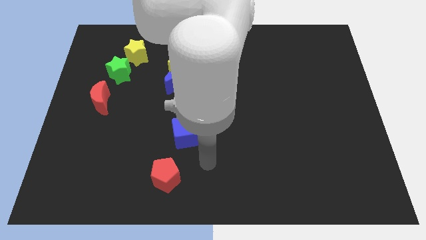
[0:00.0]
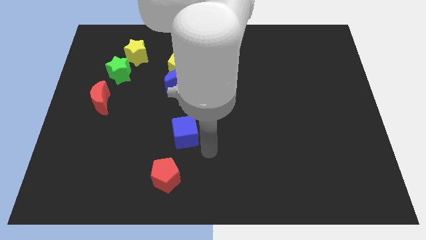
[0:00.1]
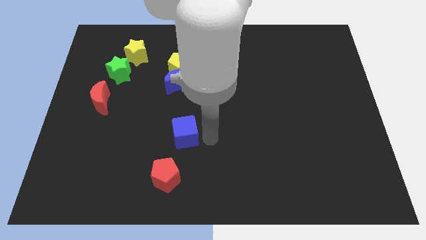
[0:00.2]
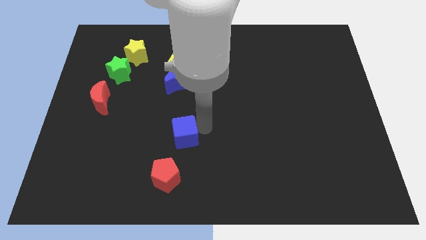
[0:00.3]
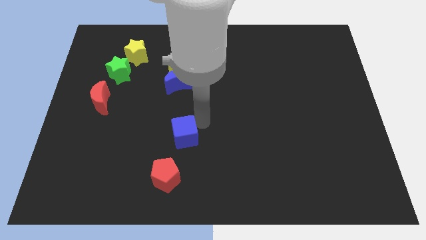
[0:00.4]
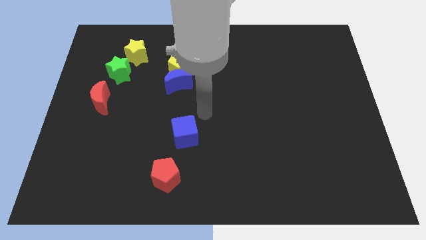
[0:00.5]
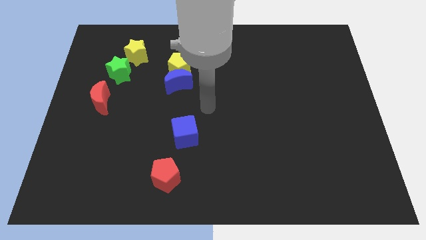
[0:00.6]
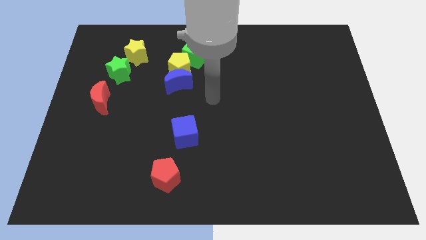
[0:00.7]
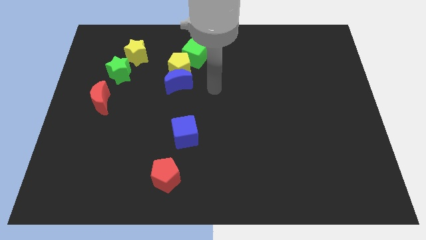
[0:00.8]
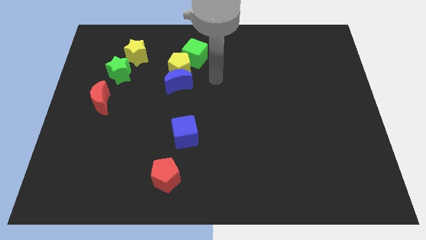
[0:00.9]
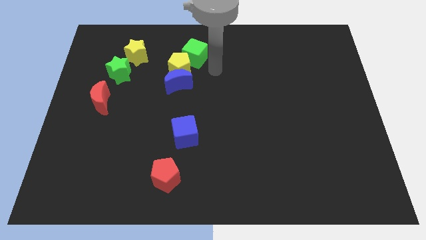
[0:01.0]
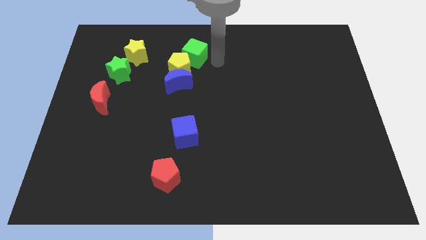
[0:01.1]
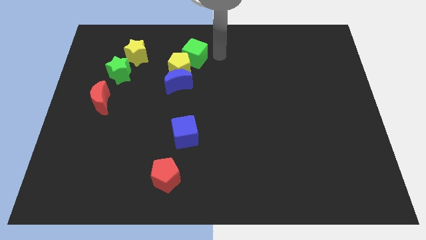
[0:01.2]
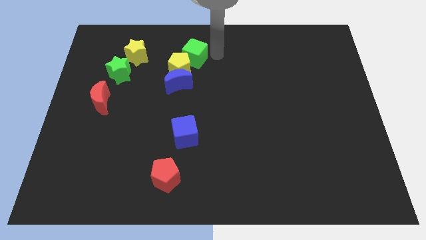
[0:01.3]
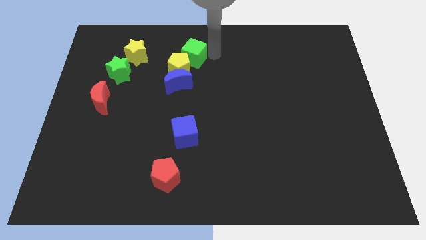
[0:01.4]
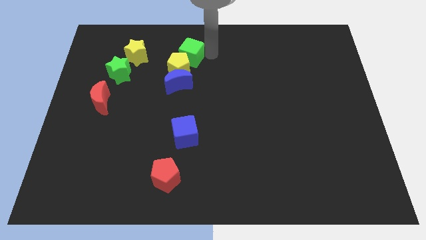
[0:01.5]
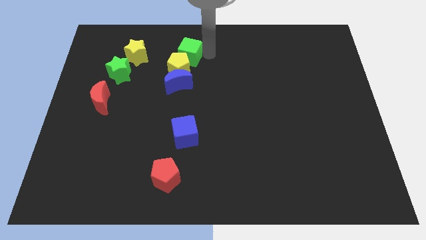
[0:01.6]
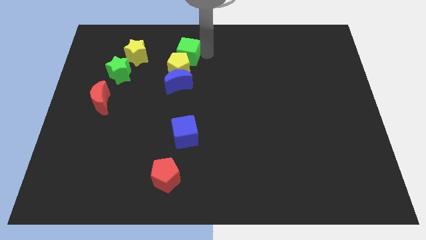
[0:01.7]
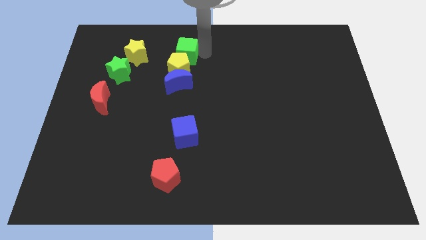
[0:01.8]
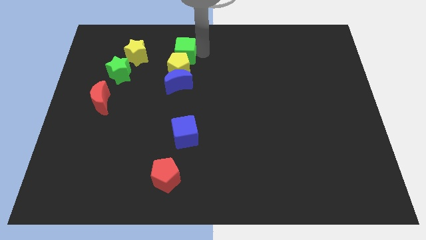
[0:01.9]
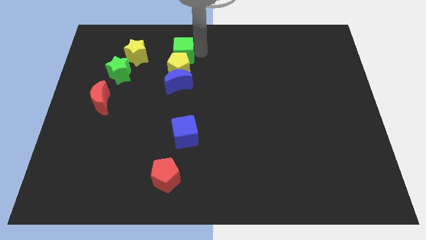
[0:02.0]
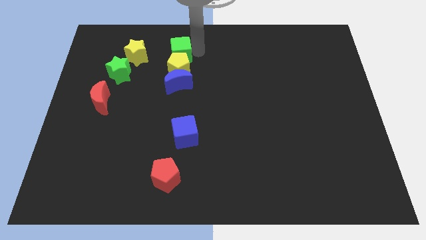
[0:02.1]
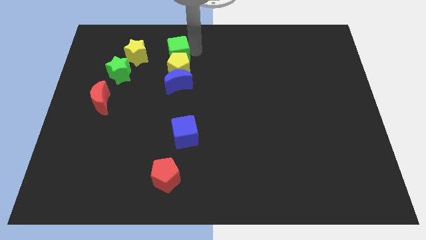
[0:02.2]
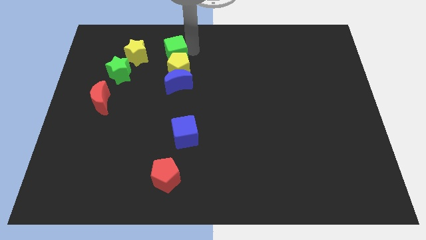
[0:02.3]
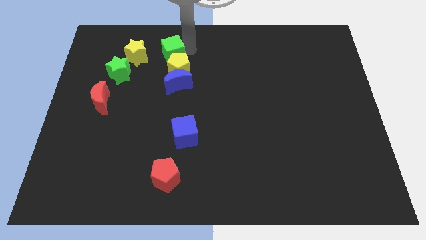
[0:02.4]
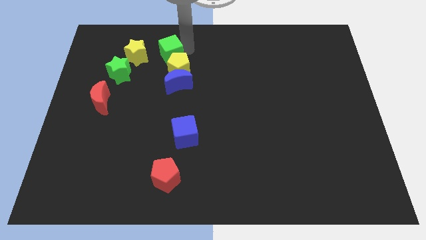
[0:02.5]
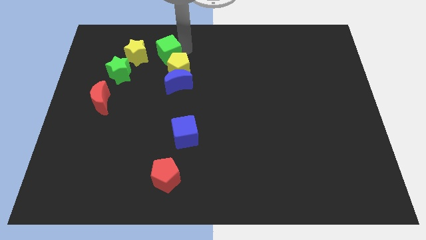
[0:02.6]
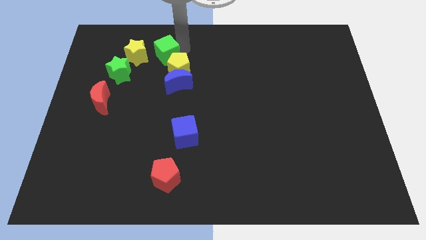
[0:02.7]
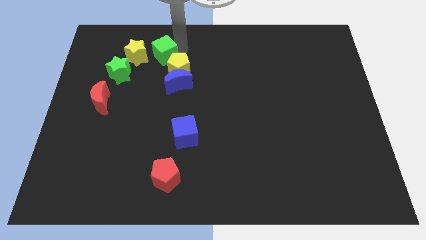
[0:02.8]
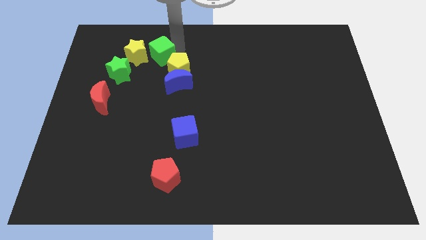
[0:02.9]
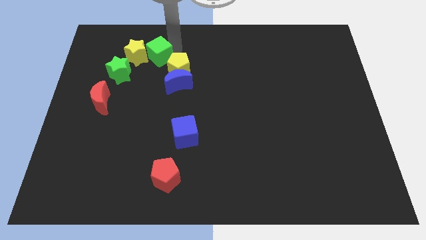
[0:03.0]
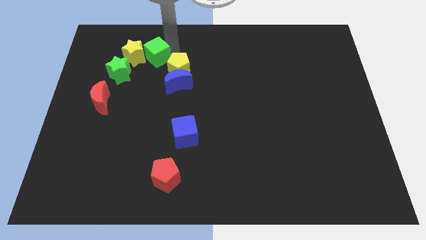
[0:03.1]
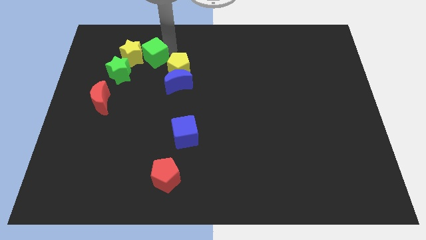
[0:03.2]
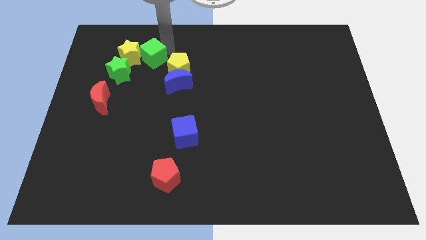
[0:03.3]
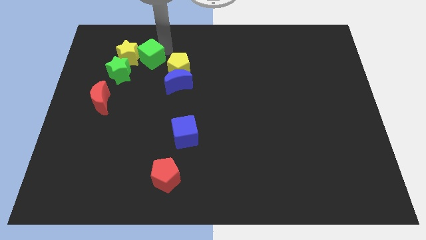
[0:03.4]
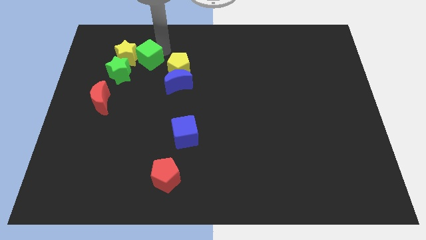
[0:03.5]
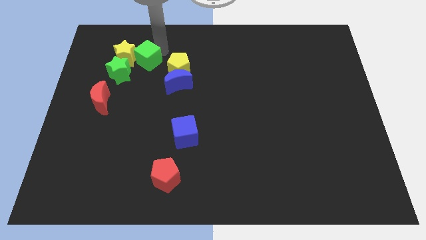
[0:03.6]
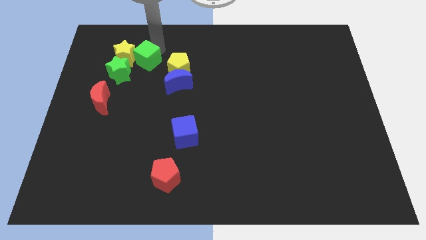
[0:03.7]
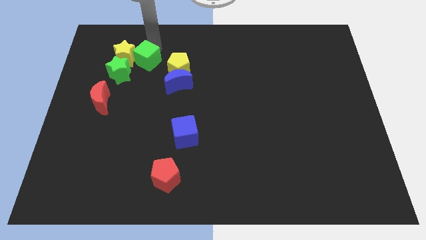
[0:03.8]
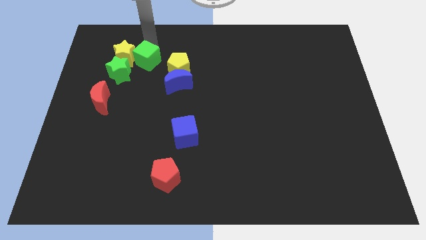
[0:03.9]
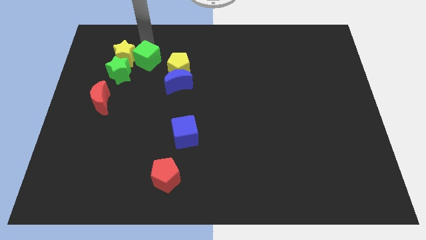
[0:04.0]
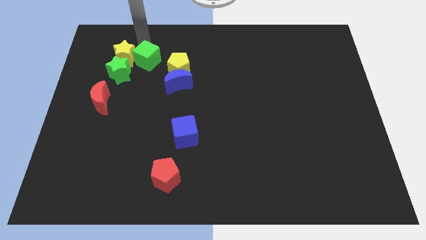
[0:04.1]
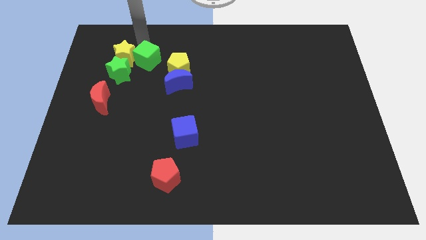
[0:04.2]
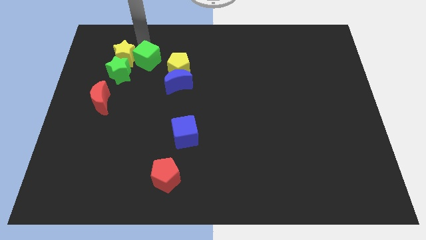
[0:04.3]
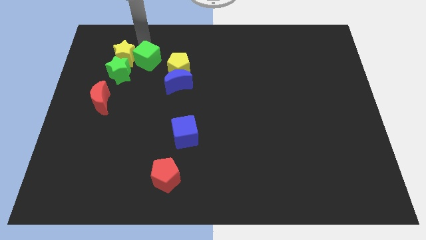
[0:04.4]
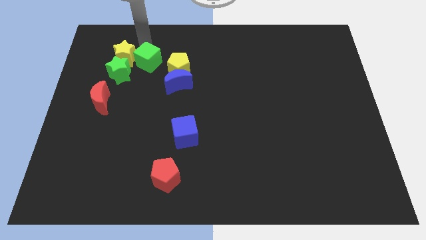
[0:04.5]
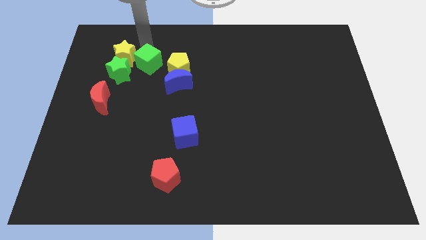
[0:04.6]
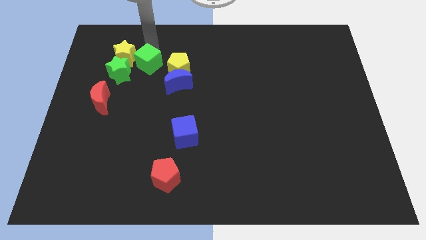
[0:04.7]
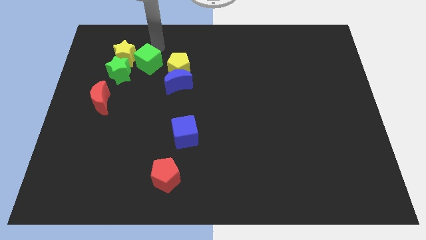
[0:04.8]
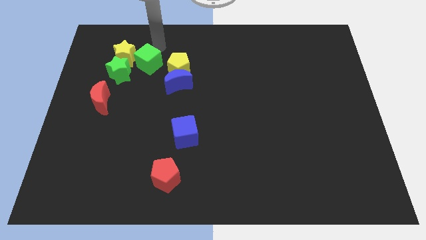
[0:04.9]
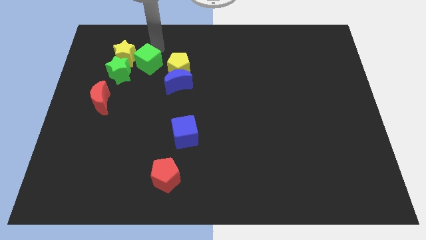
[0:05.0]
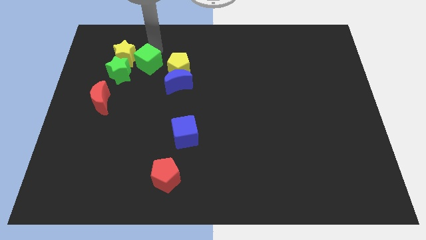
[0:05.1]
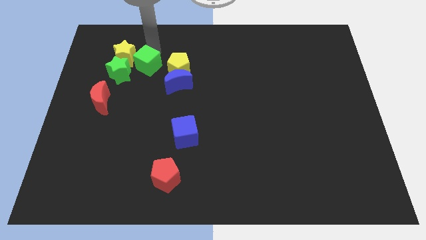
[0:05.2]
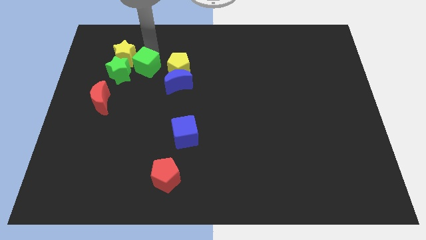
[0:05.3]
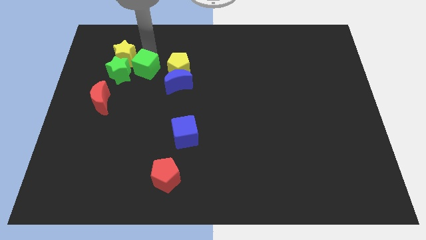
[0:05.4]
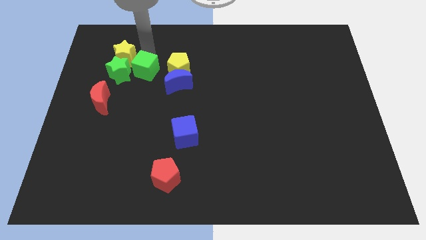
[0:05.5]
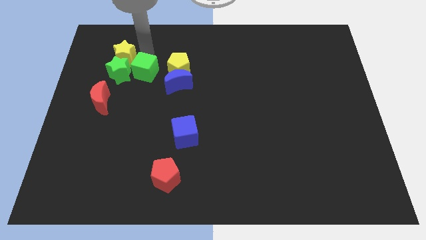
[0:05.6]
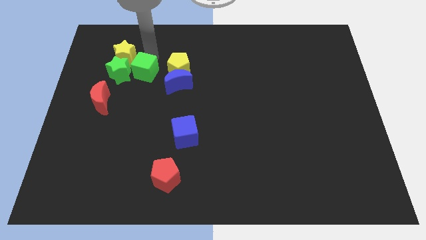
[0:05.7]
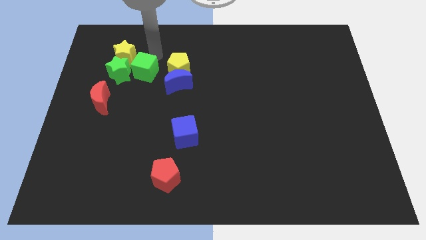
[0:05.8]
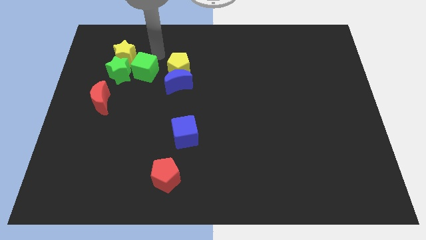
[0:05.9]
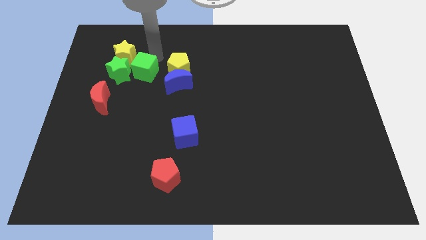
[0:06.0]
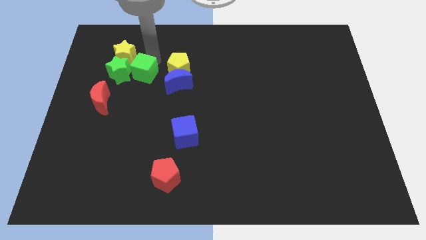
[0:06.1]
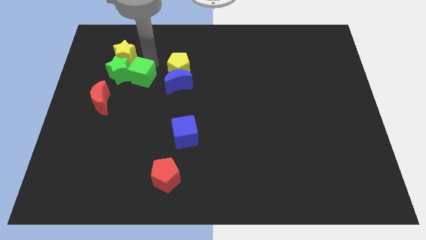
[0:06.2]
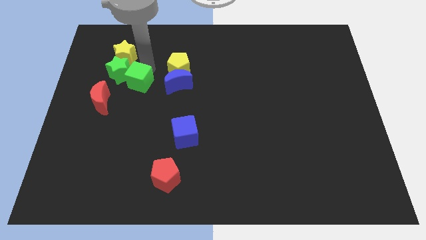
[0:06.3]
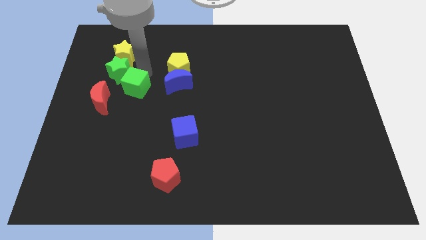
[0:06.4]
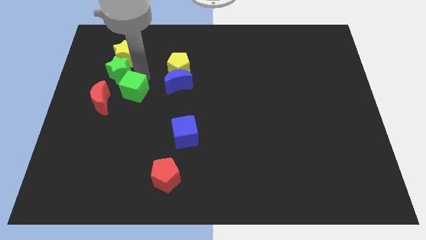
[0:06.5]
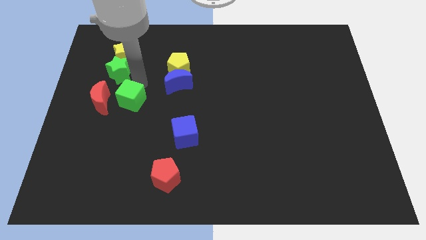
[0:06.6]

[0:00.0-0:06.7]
slide the green cube downwards and to the left

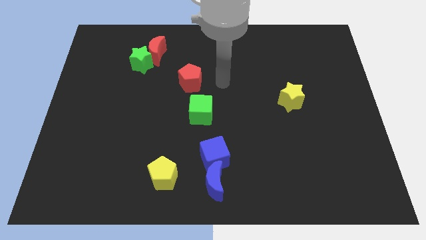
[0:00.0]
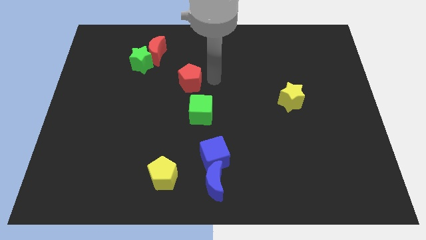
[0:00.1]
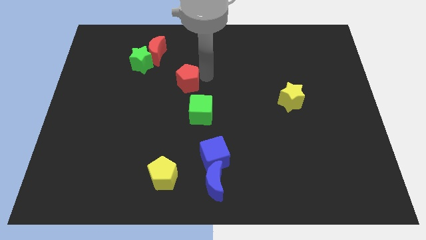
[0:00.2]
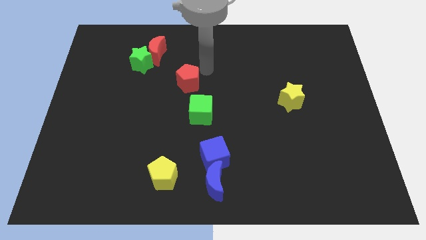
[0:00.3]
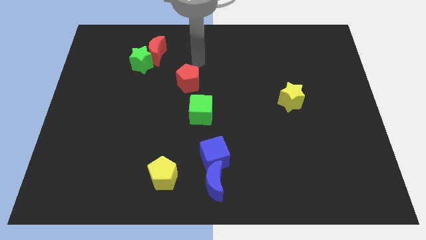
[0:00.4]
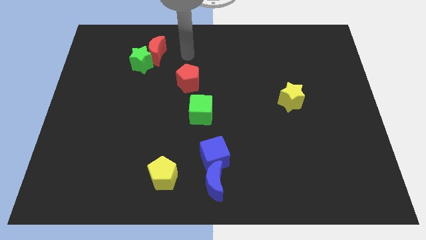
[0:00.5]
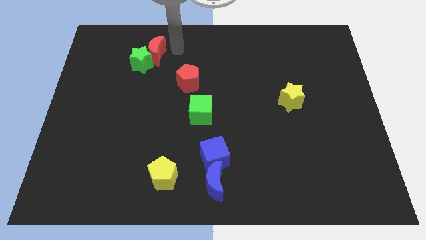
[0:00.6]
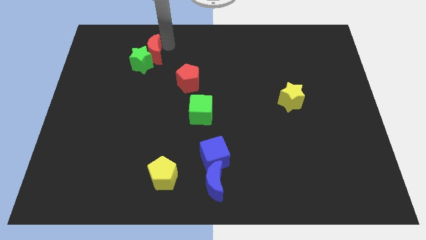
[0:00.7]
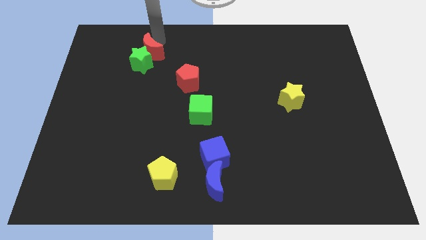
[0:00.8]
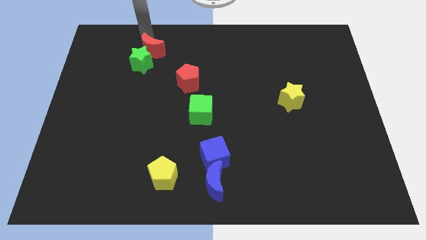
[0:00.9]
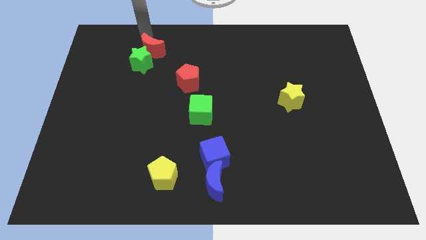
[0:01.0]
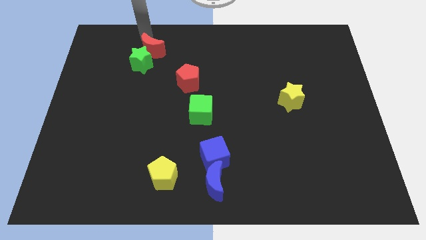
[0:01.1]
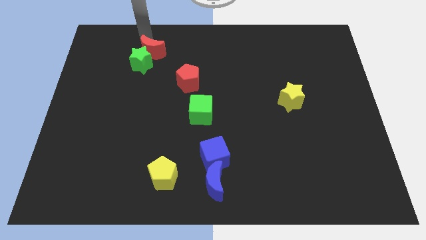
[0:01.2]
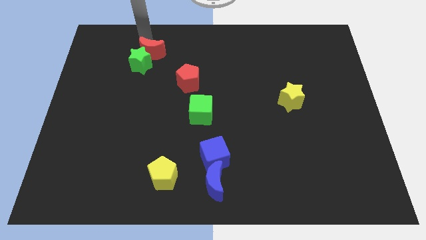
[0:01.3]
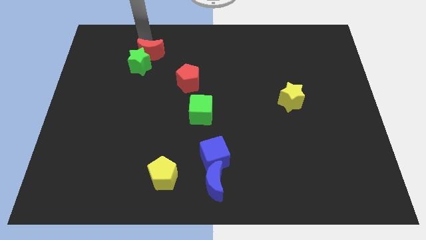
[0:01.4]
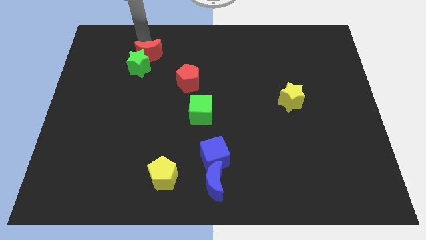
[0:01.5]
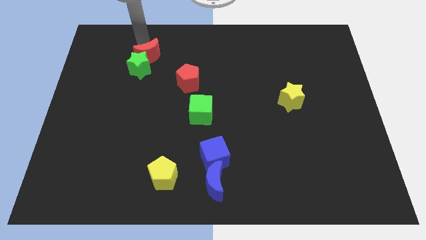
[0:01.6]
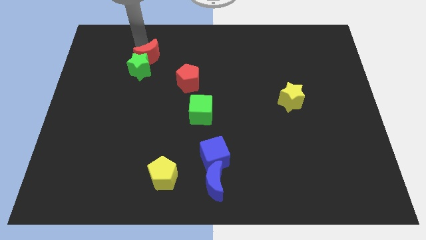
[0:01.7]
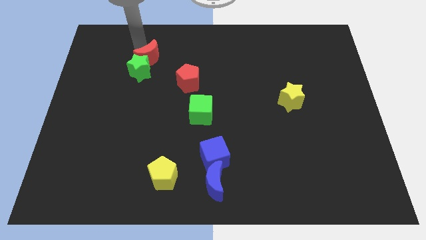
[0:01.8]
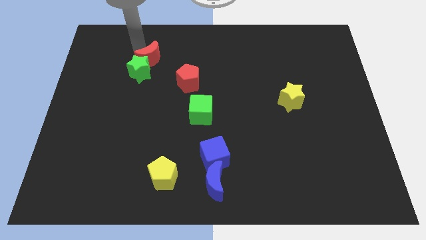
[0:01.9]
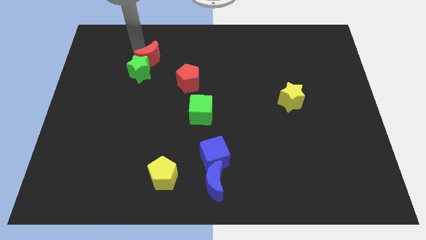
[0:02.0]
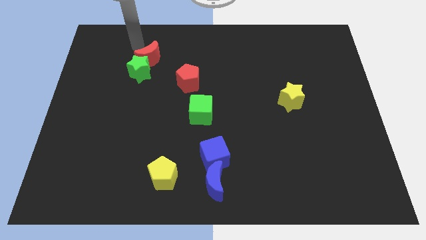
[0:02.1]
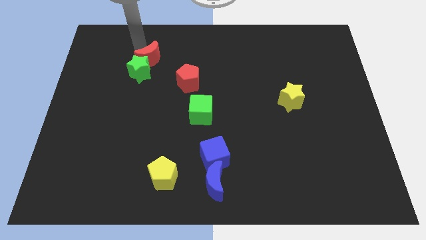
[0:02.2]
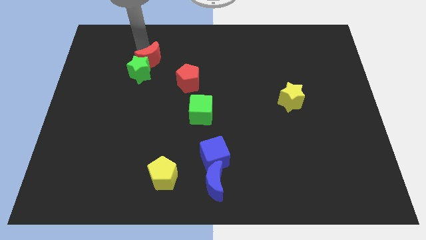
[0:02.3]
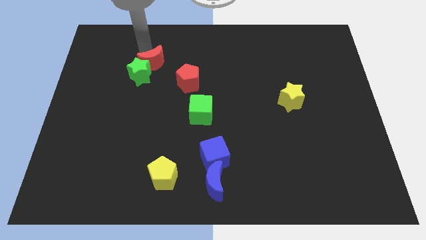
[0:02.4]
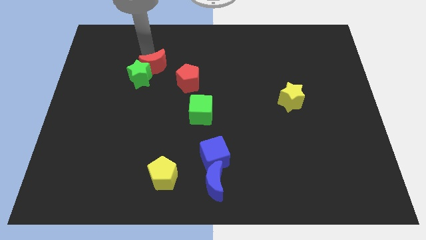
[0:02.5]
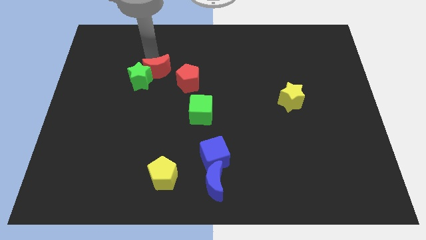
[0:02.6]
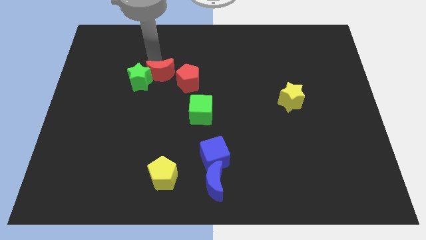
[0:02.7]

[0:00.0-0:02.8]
slide the red moon downwards a little
